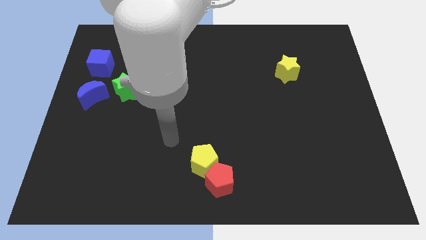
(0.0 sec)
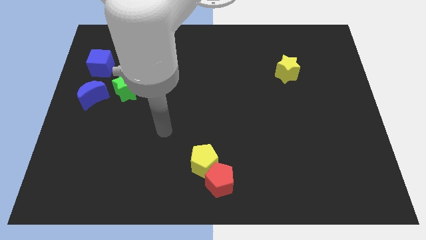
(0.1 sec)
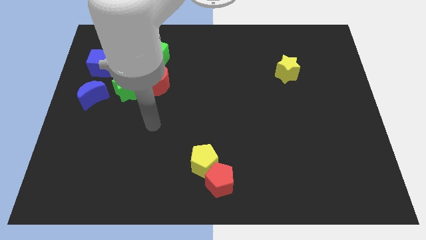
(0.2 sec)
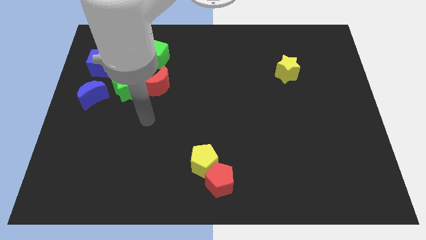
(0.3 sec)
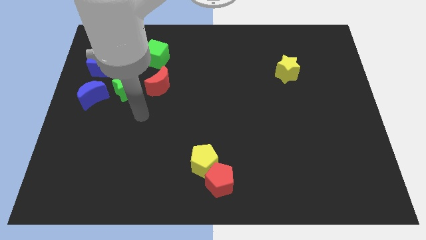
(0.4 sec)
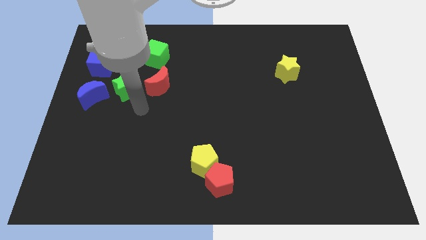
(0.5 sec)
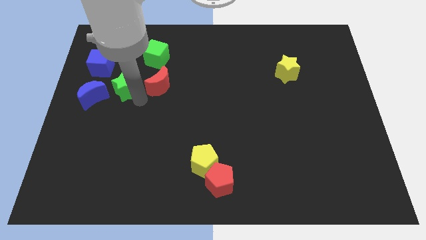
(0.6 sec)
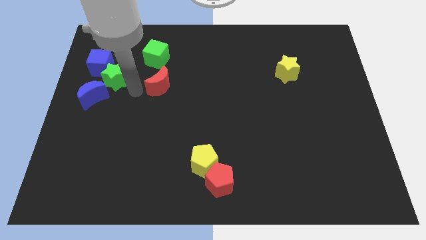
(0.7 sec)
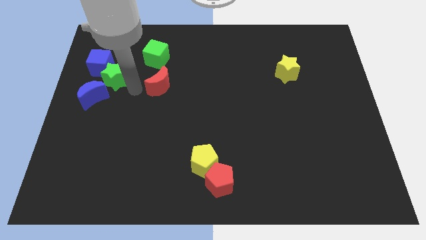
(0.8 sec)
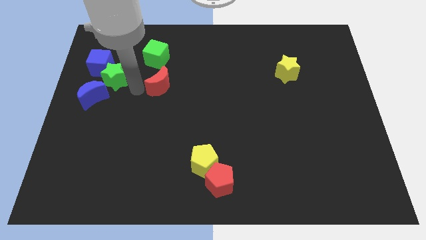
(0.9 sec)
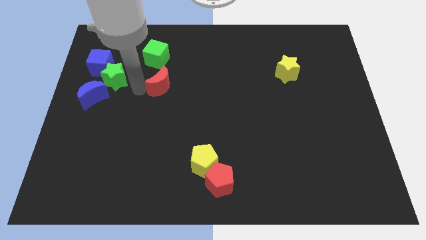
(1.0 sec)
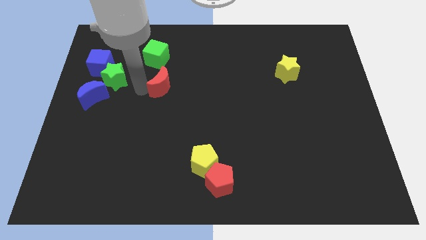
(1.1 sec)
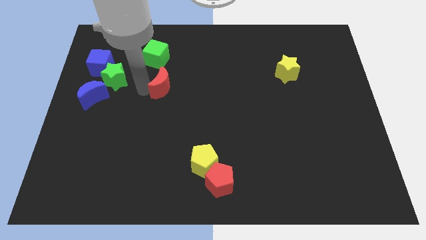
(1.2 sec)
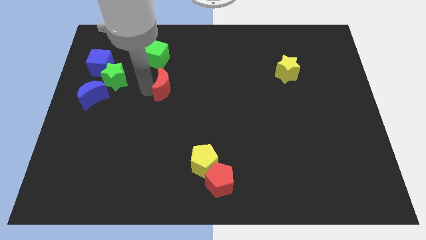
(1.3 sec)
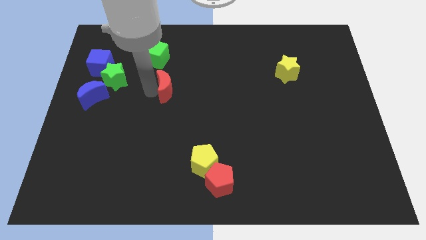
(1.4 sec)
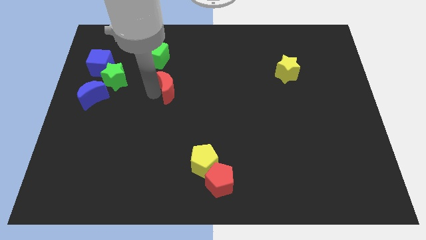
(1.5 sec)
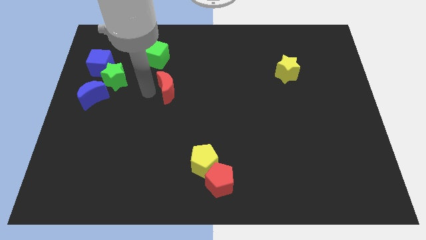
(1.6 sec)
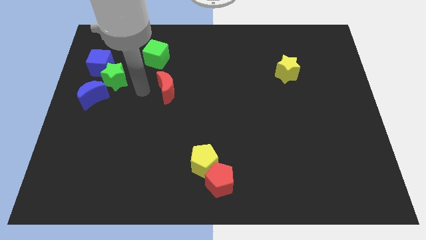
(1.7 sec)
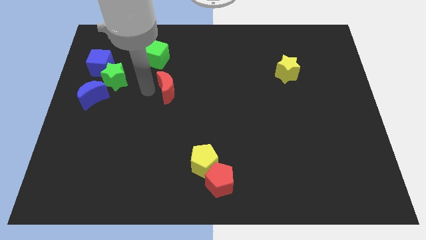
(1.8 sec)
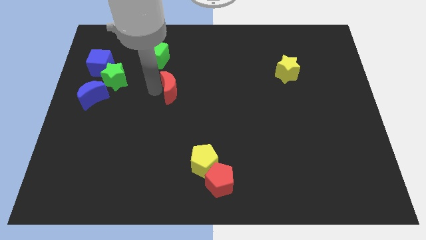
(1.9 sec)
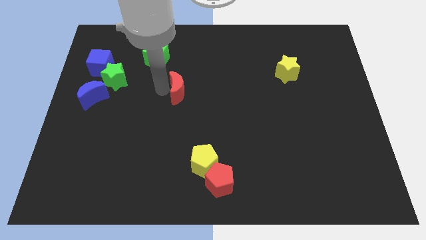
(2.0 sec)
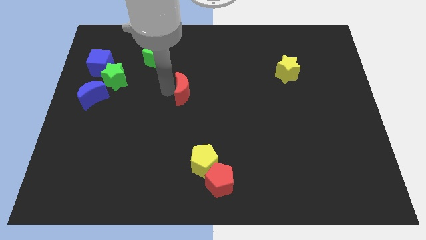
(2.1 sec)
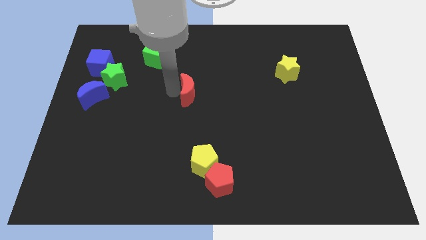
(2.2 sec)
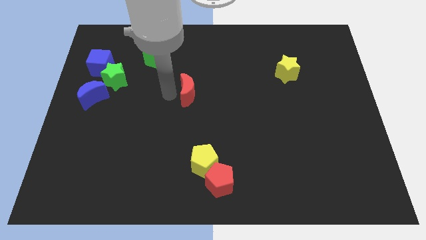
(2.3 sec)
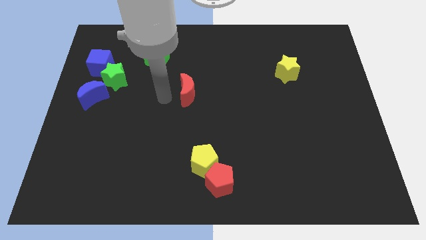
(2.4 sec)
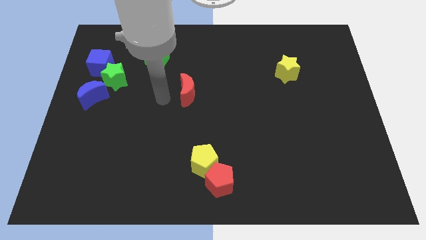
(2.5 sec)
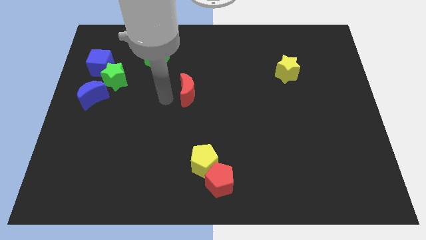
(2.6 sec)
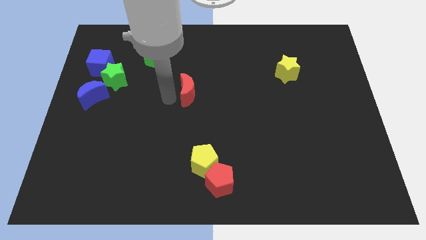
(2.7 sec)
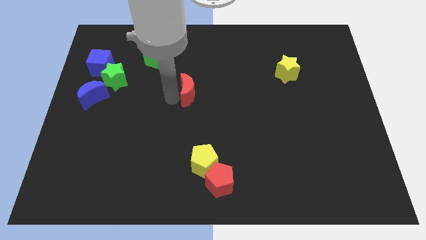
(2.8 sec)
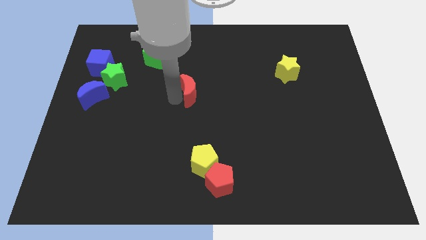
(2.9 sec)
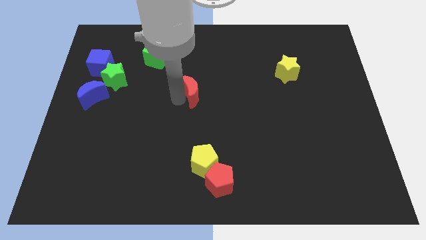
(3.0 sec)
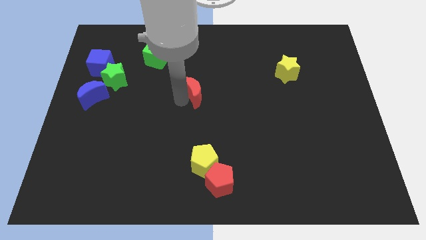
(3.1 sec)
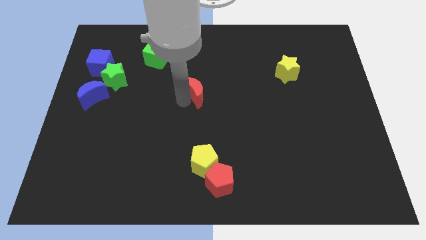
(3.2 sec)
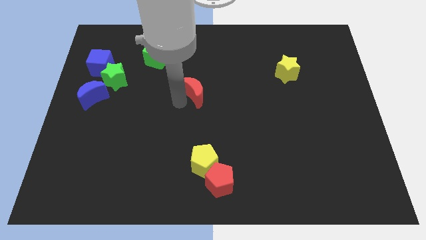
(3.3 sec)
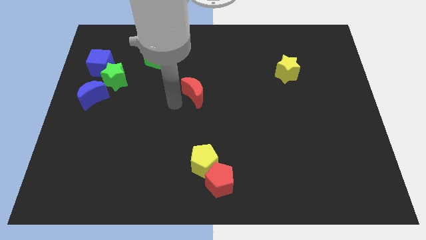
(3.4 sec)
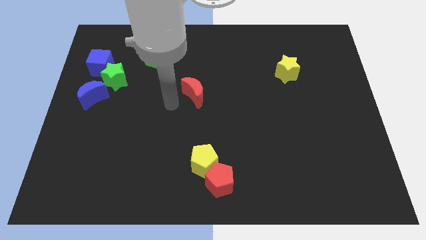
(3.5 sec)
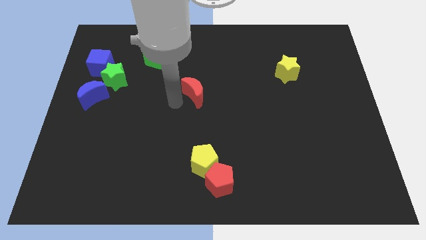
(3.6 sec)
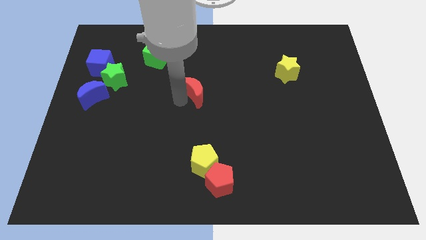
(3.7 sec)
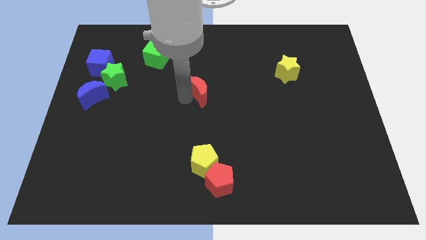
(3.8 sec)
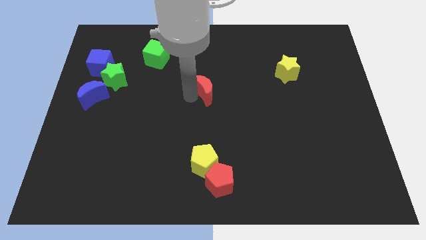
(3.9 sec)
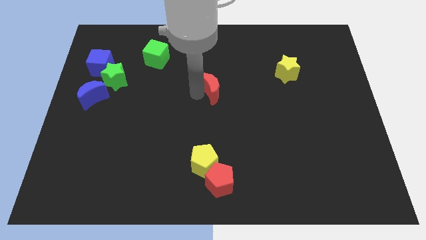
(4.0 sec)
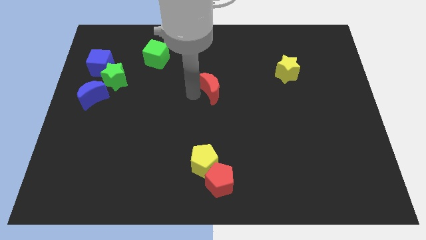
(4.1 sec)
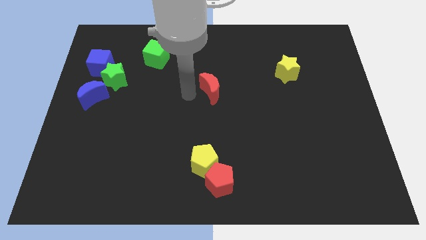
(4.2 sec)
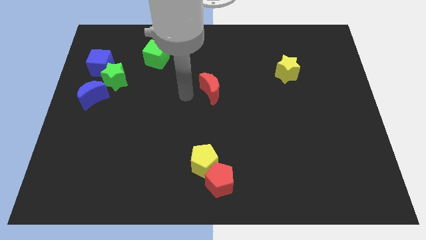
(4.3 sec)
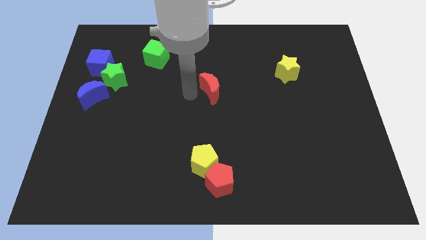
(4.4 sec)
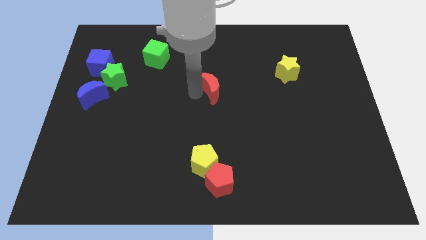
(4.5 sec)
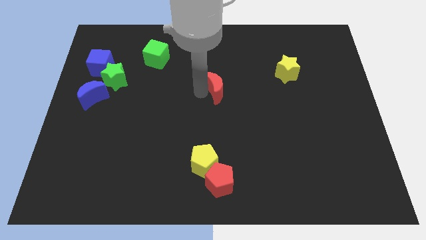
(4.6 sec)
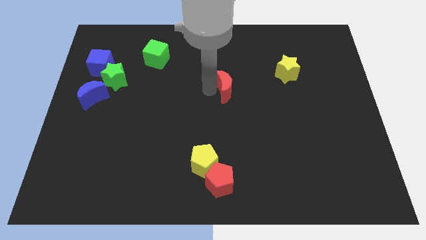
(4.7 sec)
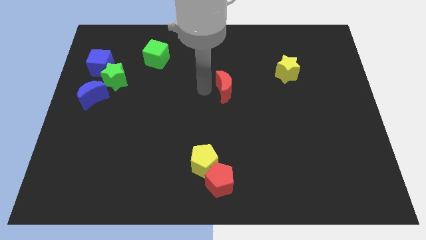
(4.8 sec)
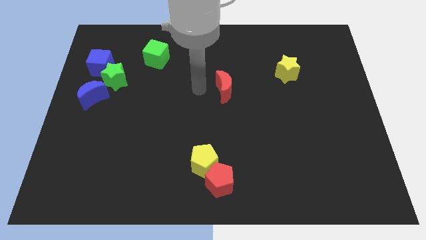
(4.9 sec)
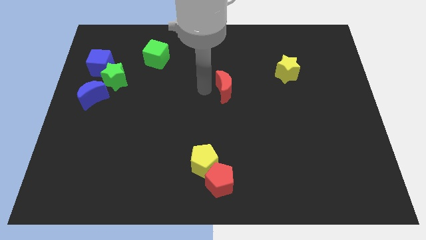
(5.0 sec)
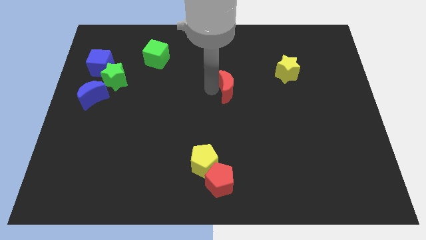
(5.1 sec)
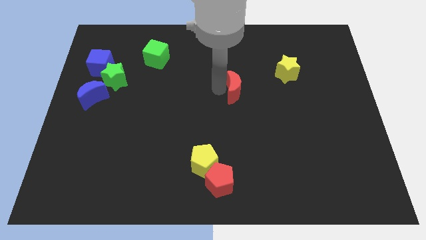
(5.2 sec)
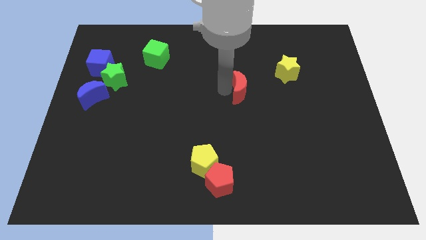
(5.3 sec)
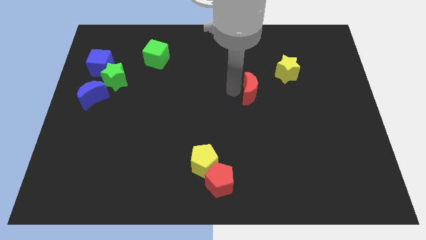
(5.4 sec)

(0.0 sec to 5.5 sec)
move the red moon right

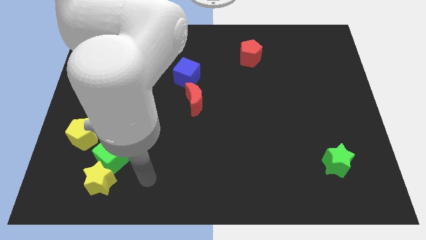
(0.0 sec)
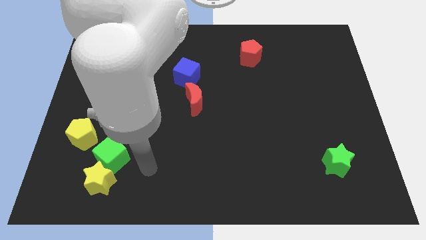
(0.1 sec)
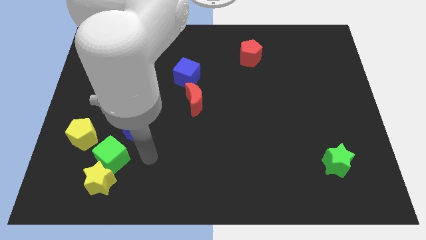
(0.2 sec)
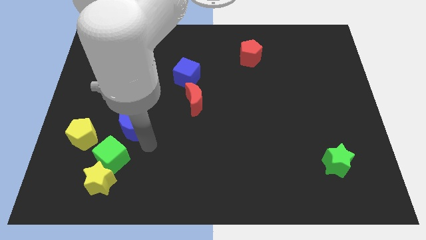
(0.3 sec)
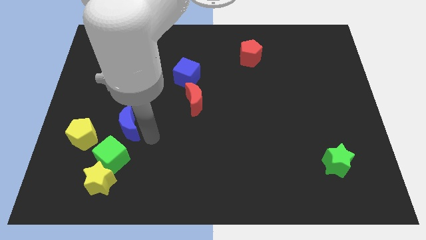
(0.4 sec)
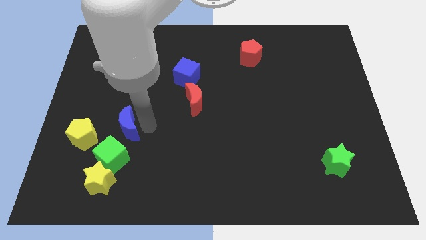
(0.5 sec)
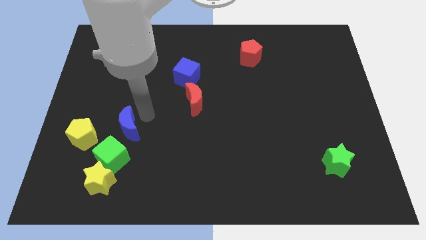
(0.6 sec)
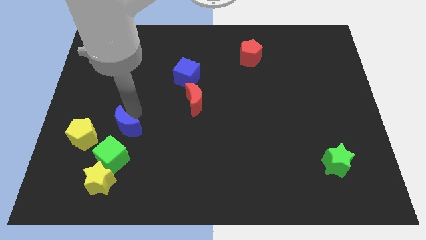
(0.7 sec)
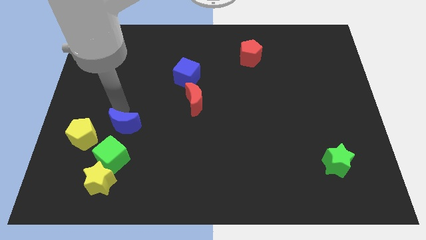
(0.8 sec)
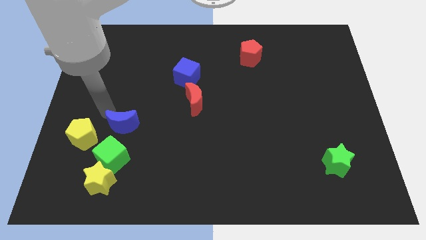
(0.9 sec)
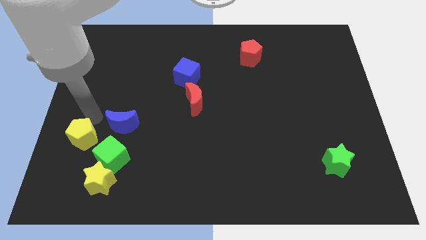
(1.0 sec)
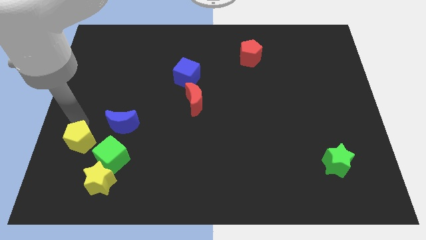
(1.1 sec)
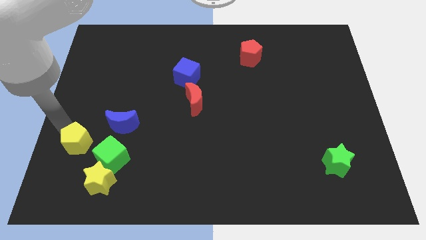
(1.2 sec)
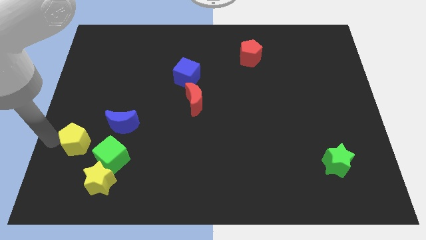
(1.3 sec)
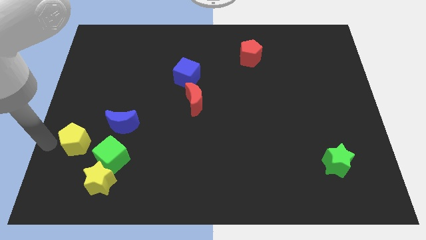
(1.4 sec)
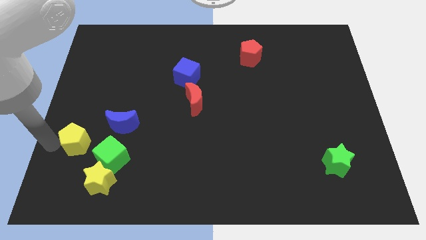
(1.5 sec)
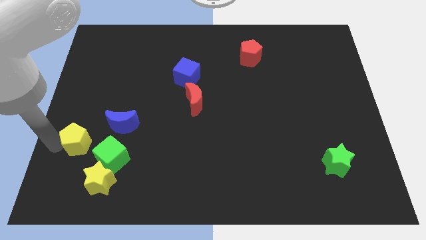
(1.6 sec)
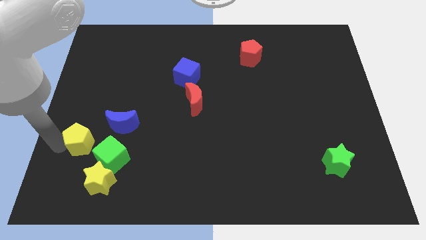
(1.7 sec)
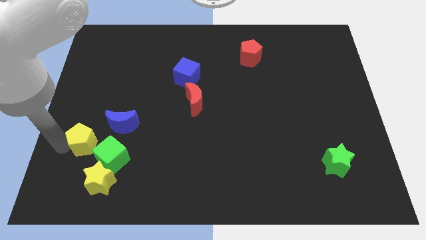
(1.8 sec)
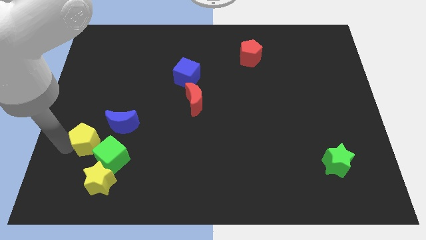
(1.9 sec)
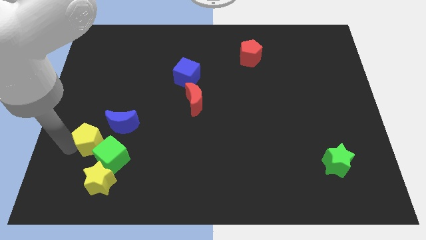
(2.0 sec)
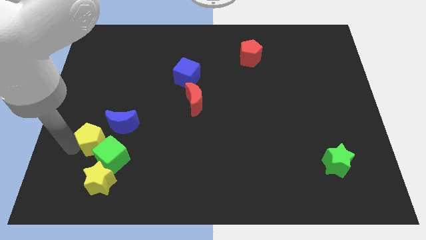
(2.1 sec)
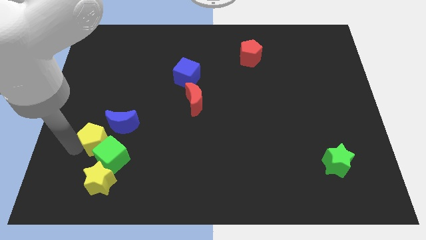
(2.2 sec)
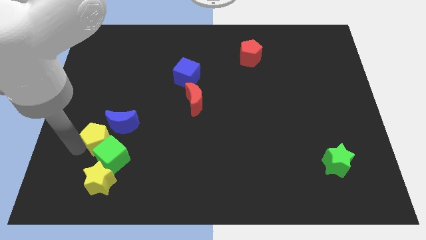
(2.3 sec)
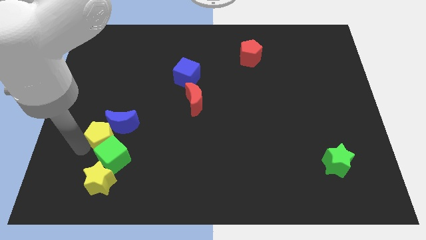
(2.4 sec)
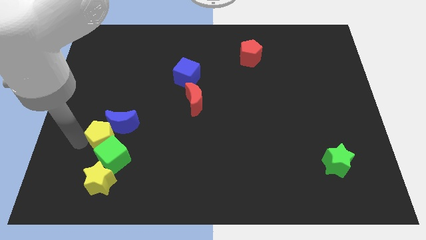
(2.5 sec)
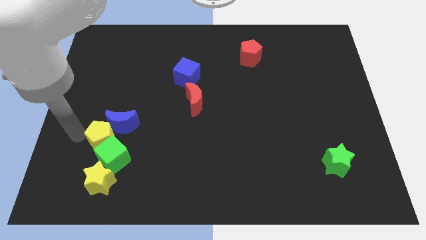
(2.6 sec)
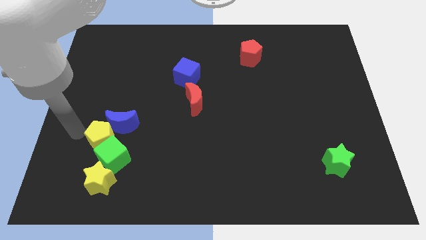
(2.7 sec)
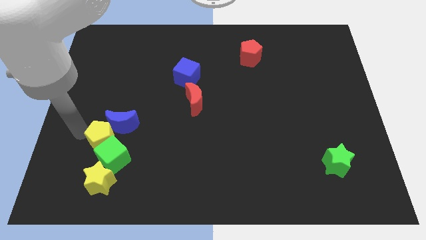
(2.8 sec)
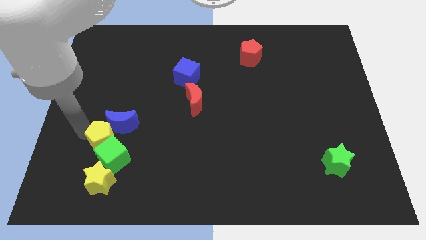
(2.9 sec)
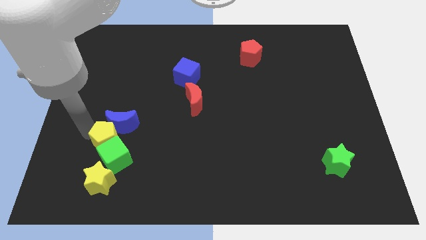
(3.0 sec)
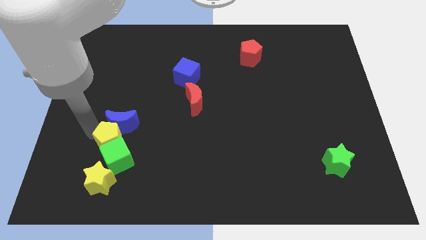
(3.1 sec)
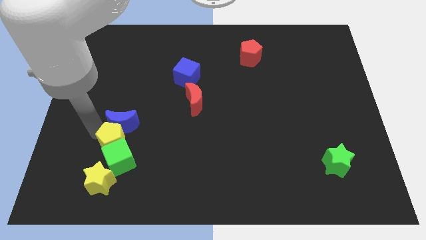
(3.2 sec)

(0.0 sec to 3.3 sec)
move the yellow pentagon right slightly
